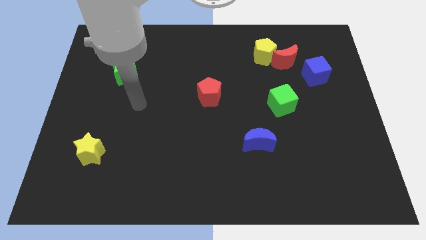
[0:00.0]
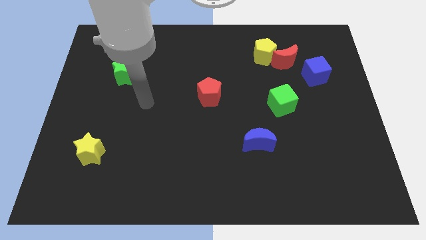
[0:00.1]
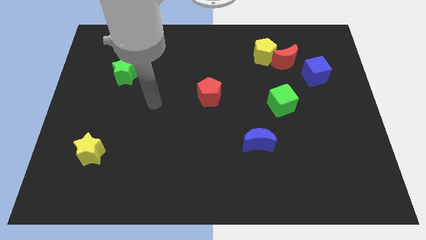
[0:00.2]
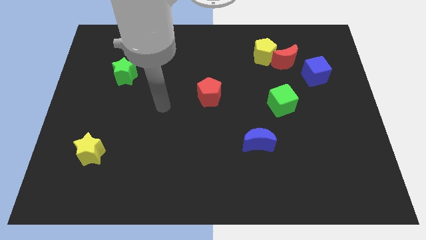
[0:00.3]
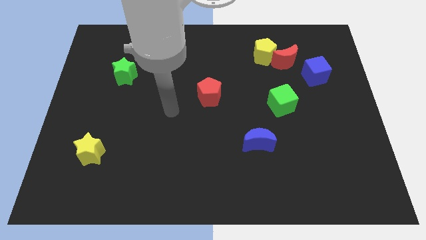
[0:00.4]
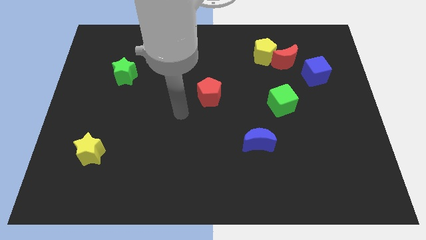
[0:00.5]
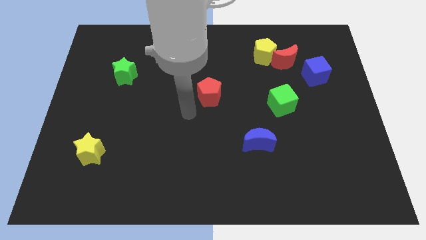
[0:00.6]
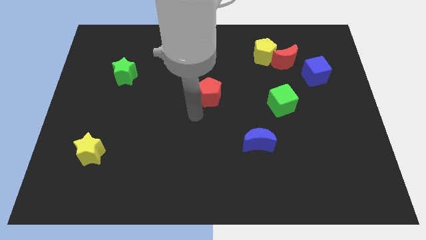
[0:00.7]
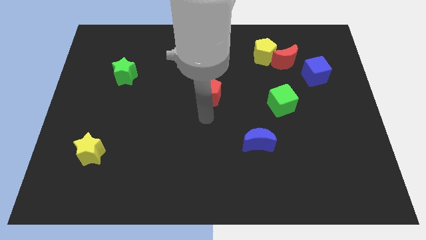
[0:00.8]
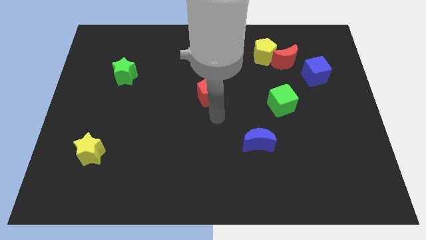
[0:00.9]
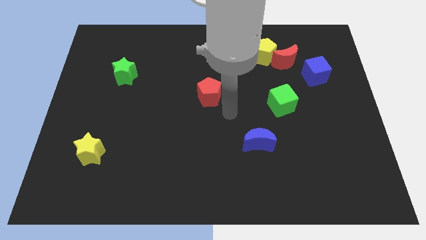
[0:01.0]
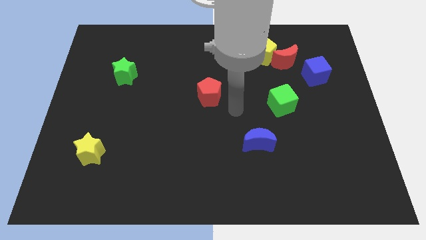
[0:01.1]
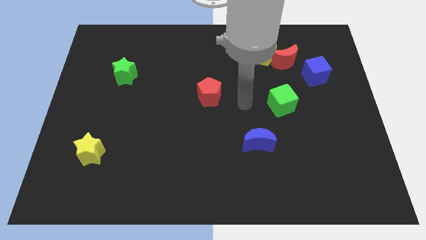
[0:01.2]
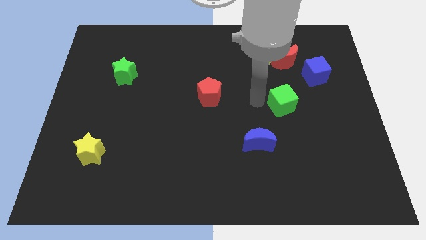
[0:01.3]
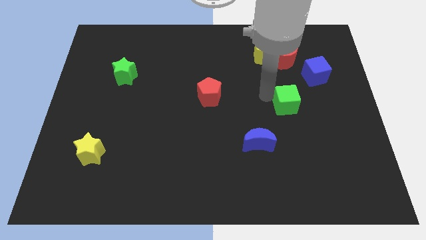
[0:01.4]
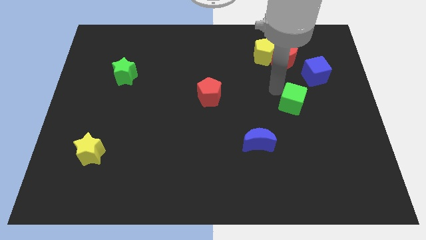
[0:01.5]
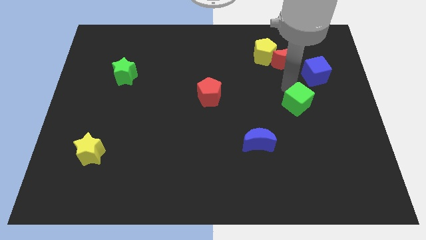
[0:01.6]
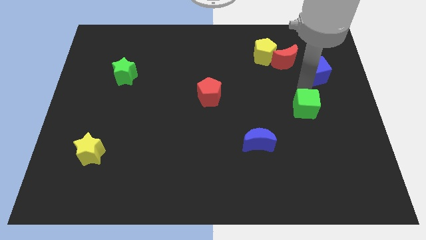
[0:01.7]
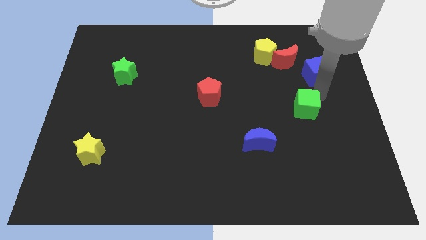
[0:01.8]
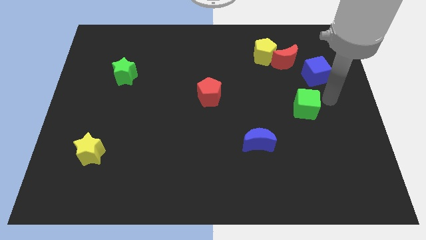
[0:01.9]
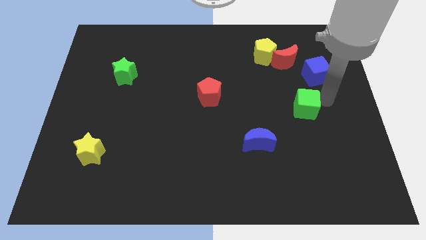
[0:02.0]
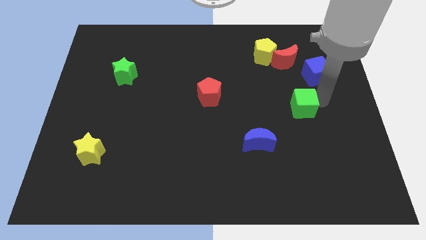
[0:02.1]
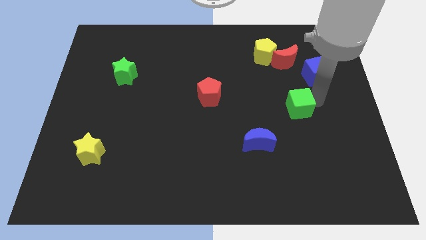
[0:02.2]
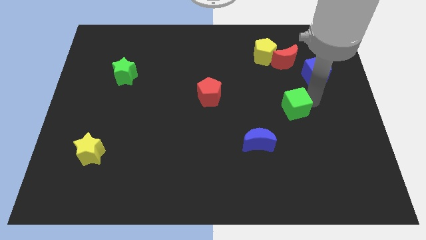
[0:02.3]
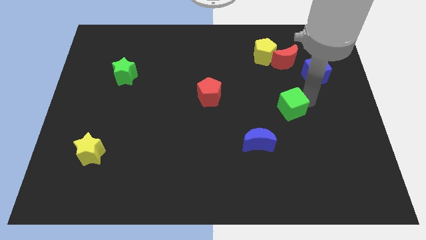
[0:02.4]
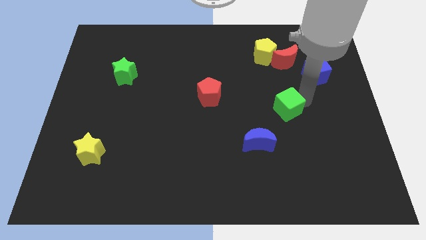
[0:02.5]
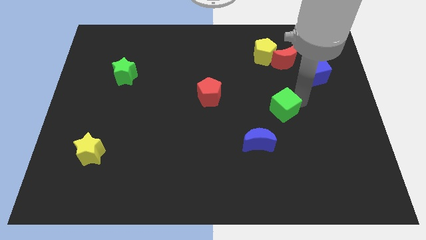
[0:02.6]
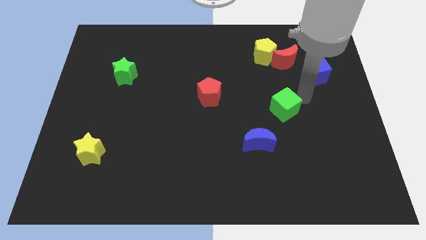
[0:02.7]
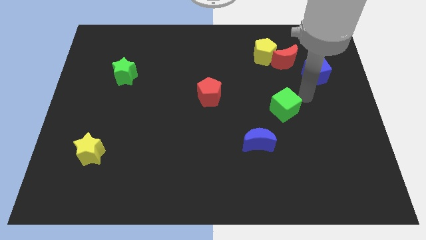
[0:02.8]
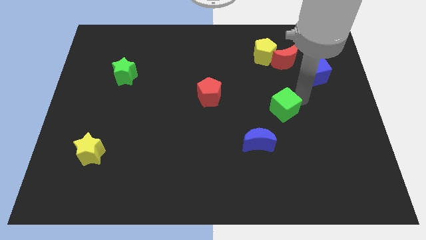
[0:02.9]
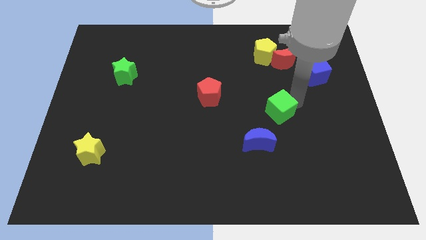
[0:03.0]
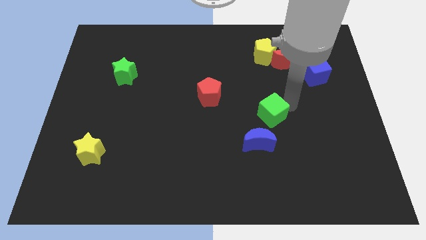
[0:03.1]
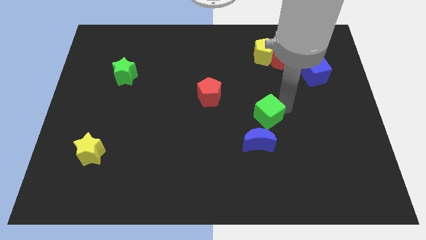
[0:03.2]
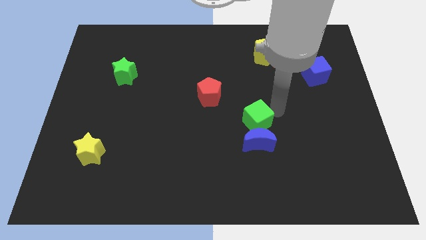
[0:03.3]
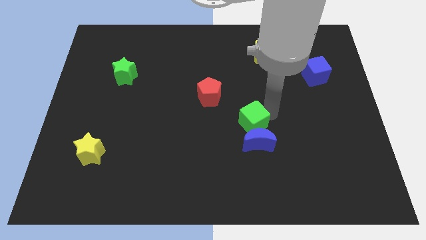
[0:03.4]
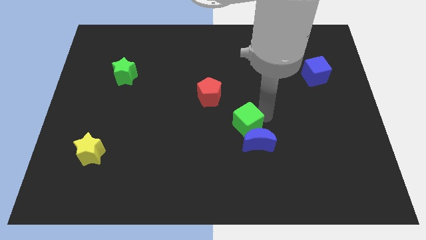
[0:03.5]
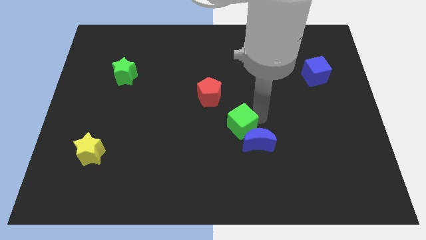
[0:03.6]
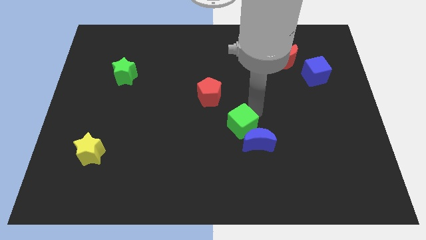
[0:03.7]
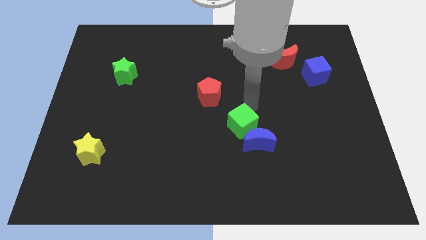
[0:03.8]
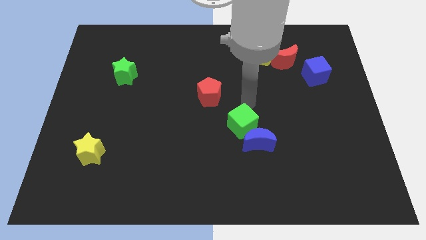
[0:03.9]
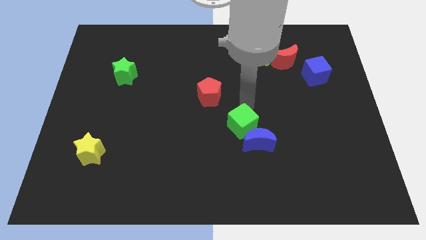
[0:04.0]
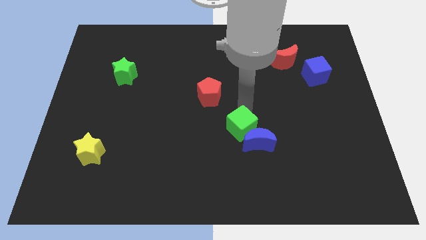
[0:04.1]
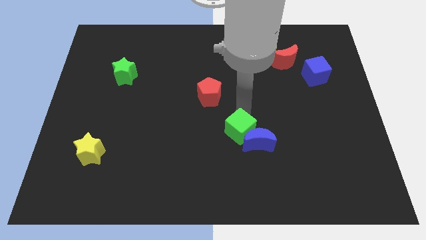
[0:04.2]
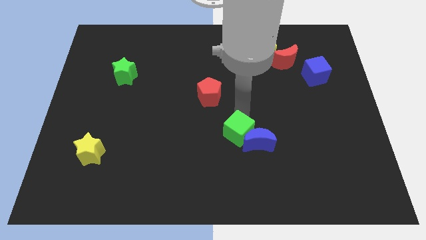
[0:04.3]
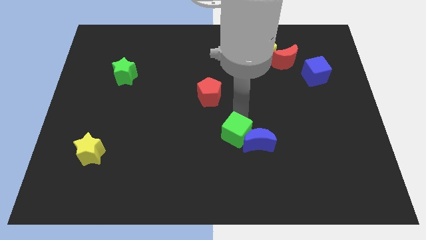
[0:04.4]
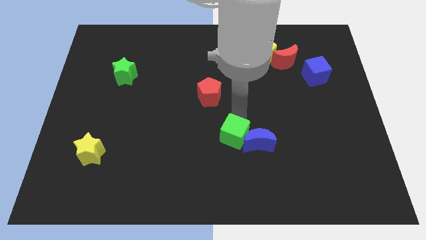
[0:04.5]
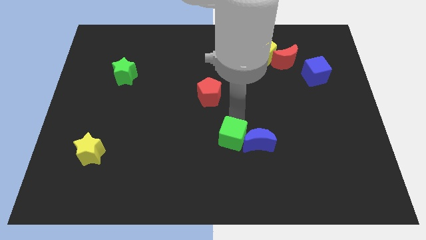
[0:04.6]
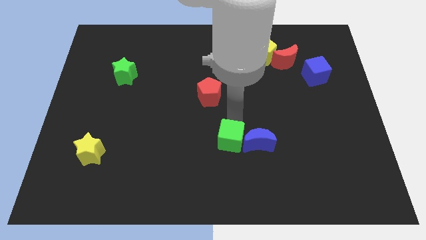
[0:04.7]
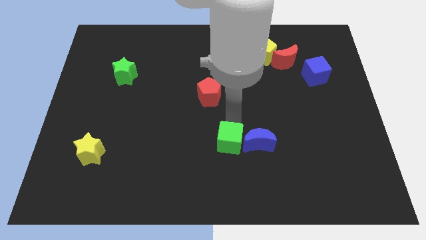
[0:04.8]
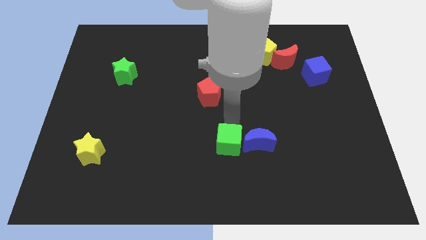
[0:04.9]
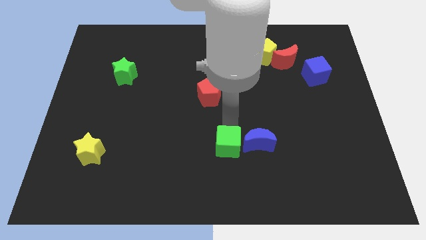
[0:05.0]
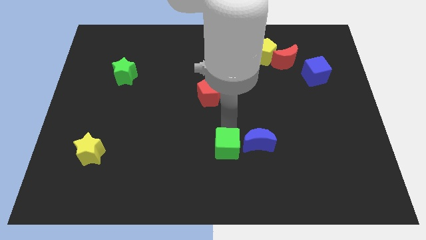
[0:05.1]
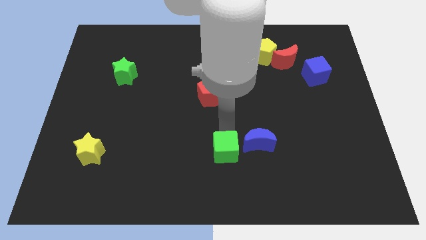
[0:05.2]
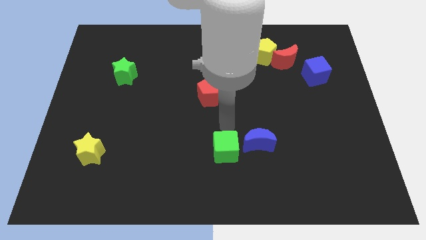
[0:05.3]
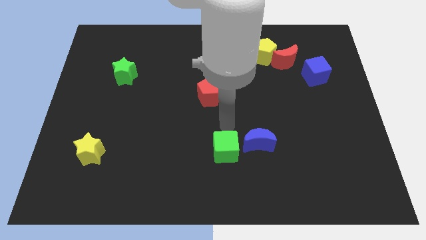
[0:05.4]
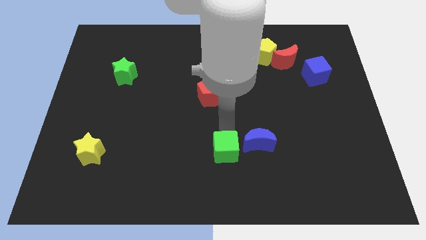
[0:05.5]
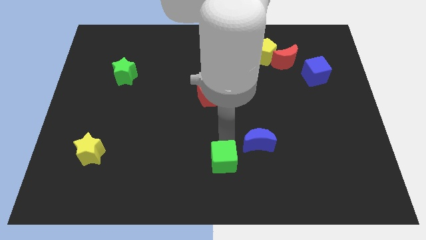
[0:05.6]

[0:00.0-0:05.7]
slide the green cube to the bottom side

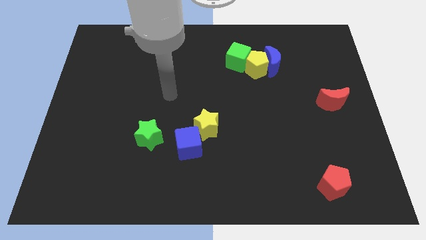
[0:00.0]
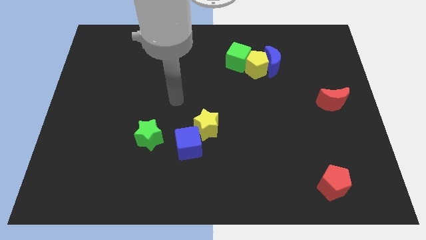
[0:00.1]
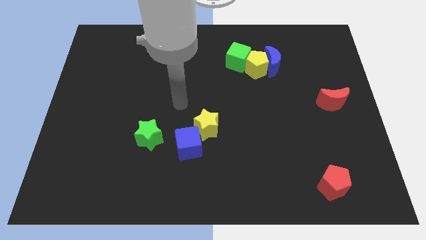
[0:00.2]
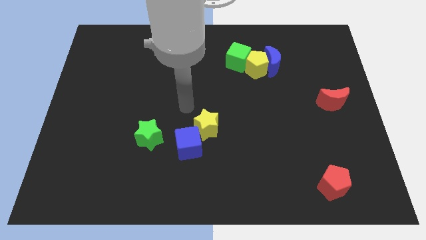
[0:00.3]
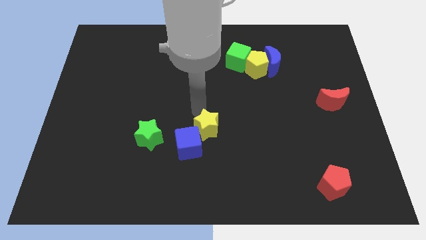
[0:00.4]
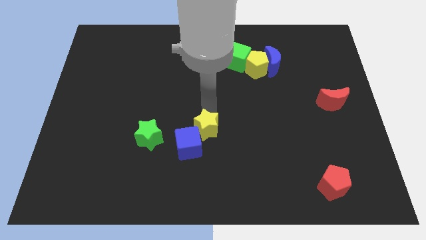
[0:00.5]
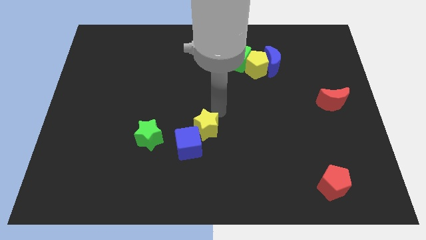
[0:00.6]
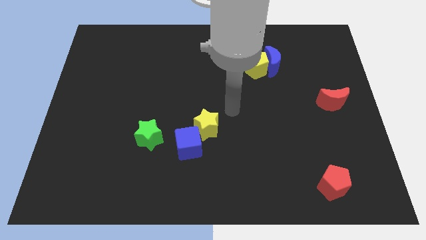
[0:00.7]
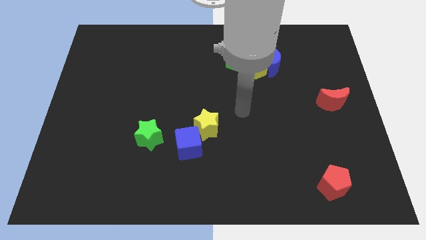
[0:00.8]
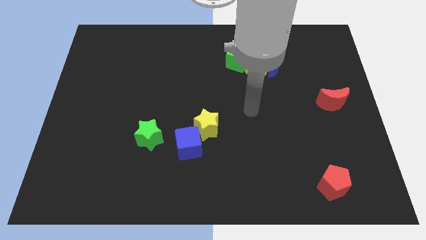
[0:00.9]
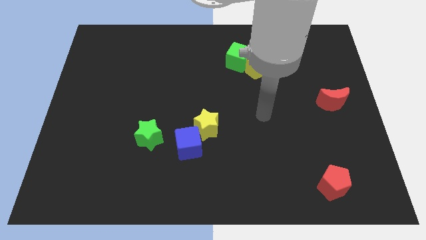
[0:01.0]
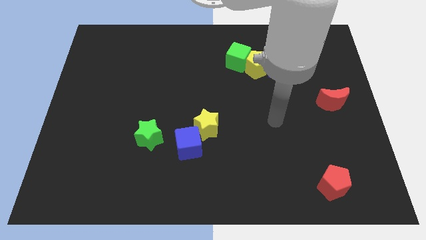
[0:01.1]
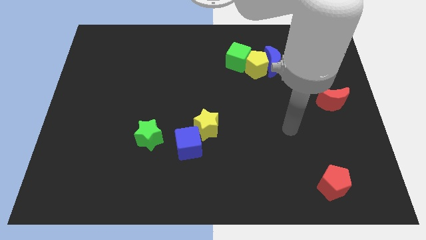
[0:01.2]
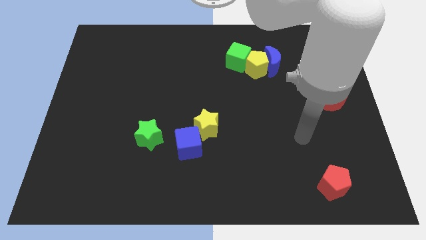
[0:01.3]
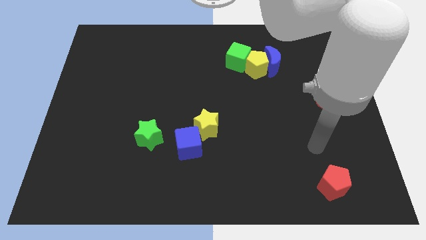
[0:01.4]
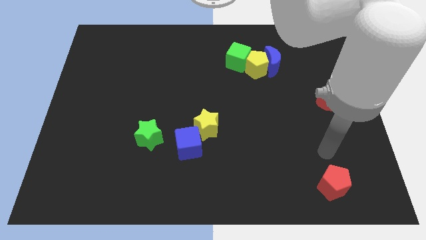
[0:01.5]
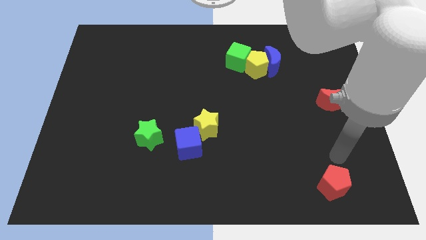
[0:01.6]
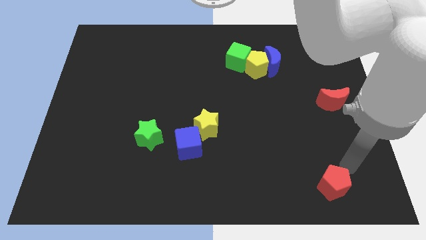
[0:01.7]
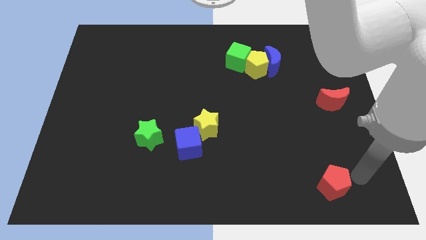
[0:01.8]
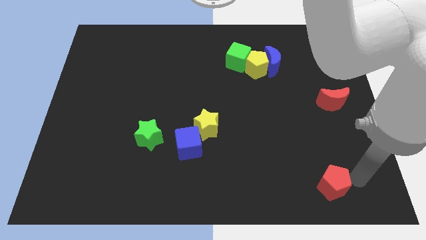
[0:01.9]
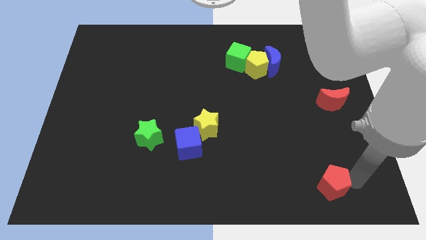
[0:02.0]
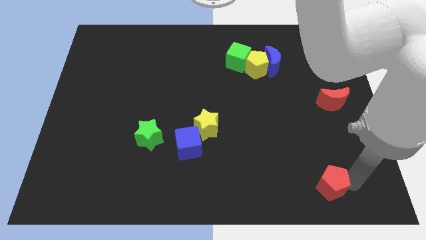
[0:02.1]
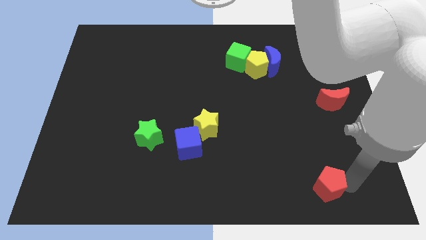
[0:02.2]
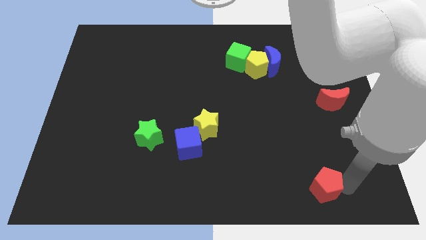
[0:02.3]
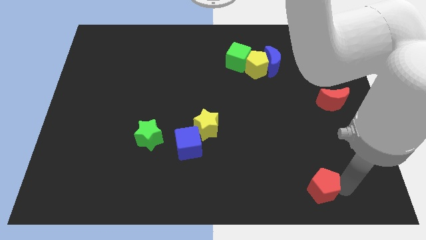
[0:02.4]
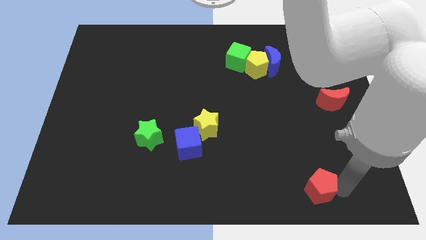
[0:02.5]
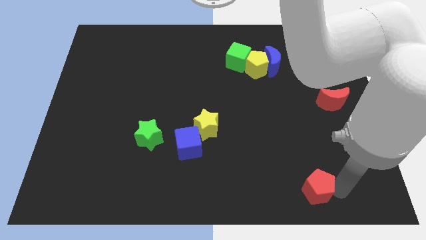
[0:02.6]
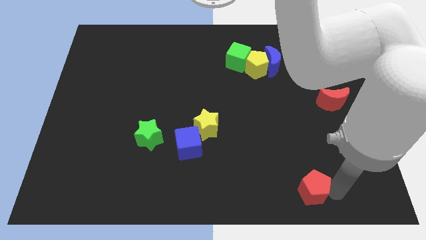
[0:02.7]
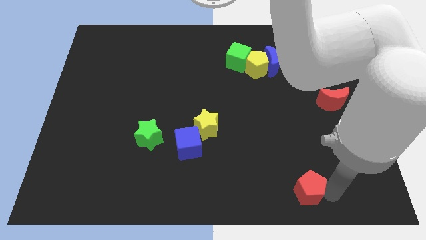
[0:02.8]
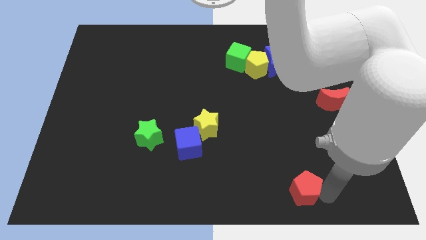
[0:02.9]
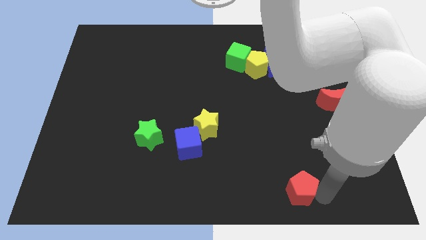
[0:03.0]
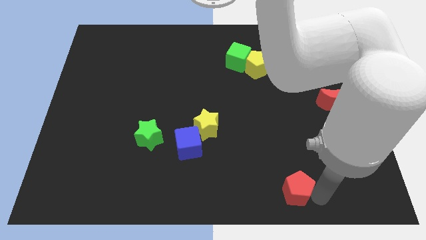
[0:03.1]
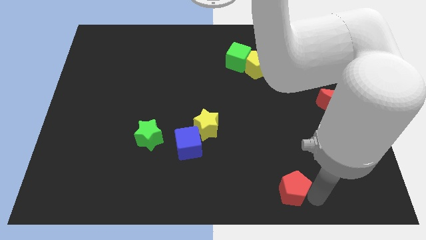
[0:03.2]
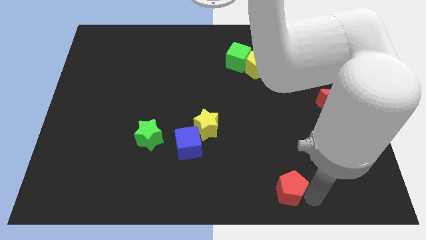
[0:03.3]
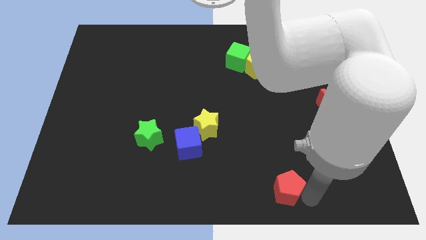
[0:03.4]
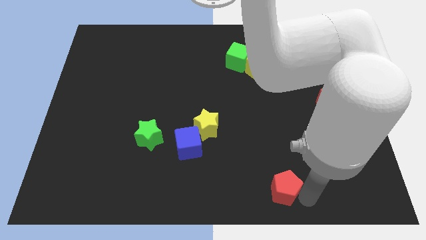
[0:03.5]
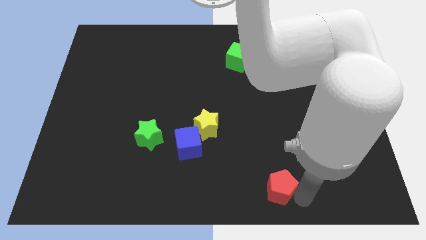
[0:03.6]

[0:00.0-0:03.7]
push the red pentagon to the bottom
